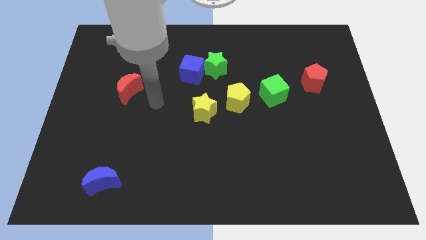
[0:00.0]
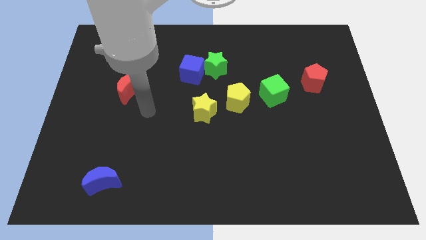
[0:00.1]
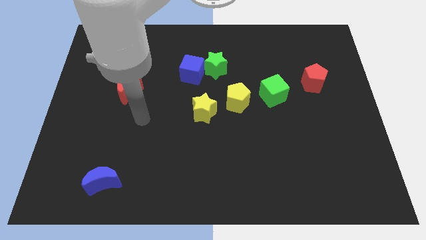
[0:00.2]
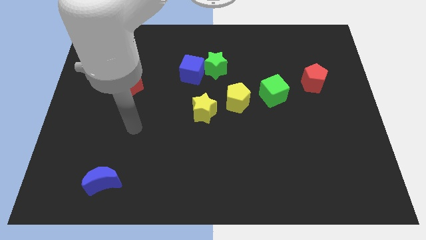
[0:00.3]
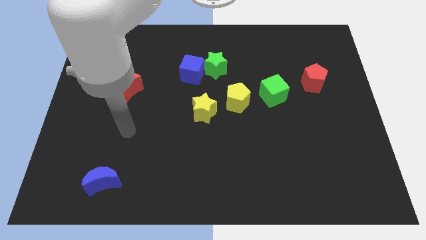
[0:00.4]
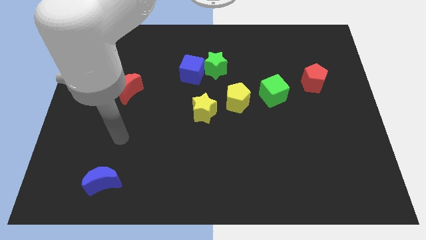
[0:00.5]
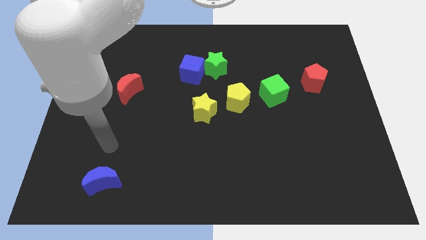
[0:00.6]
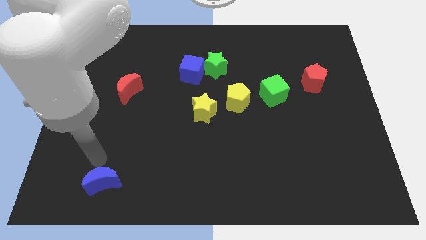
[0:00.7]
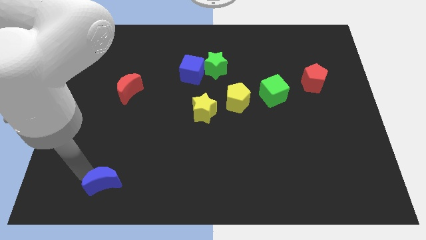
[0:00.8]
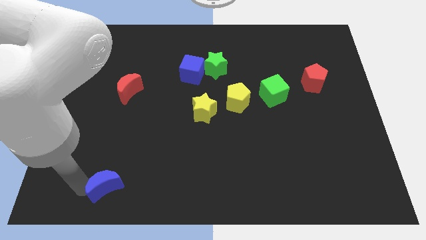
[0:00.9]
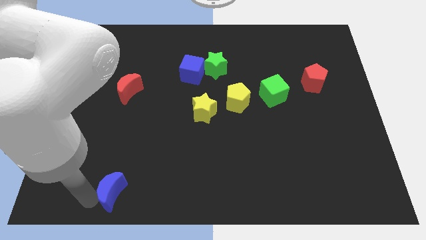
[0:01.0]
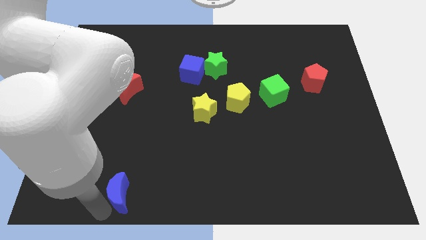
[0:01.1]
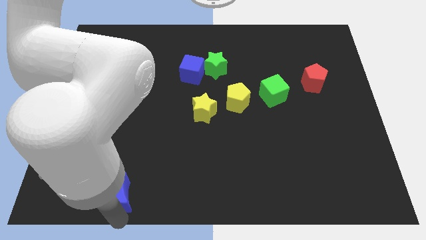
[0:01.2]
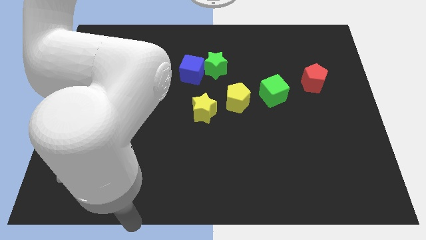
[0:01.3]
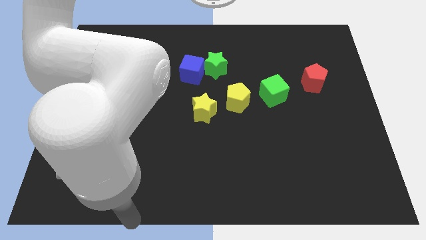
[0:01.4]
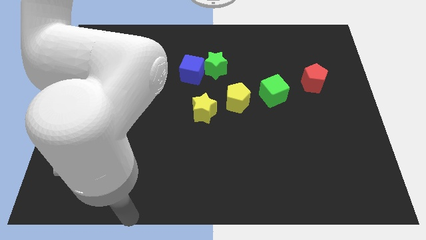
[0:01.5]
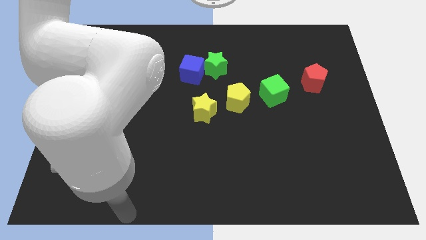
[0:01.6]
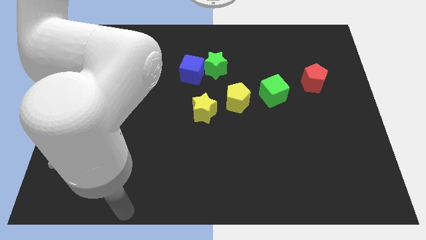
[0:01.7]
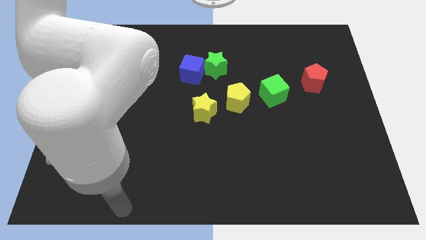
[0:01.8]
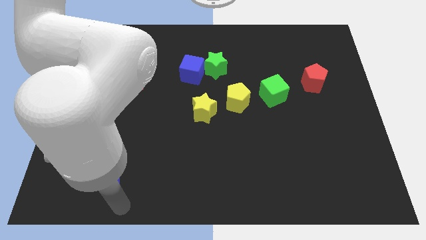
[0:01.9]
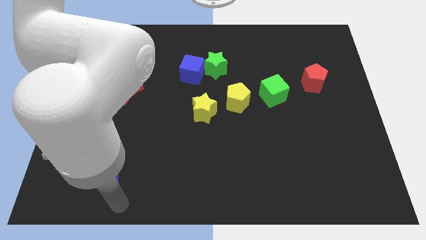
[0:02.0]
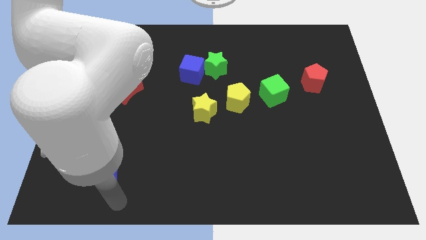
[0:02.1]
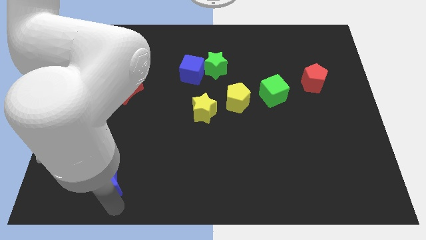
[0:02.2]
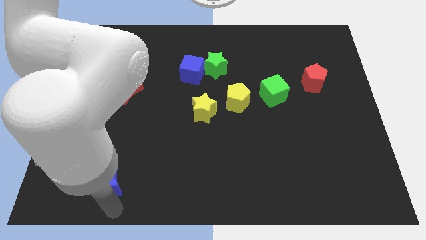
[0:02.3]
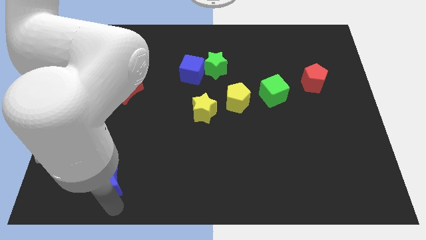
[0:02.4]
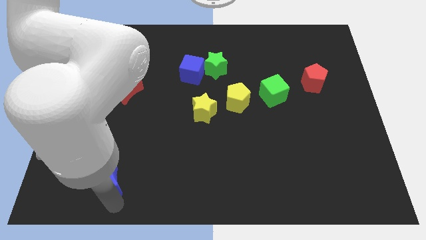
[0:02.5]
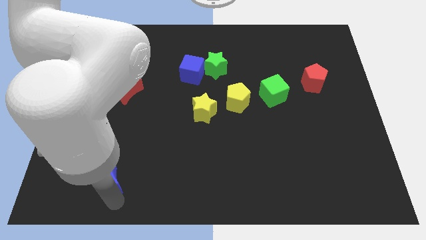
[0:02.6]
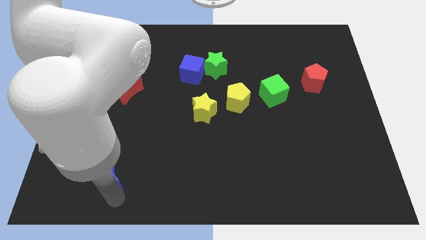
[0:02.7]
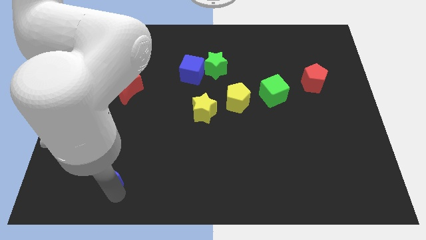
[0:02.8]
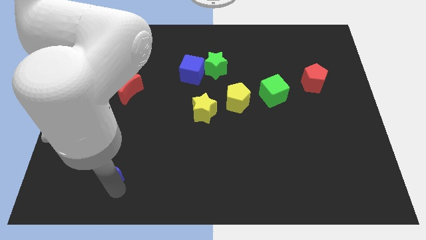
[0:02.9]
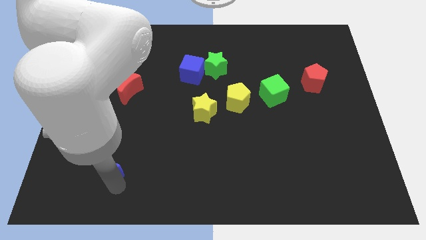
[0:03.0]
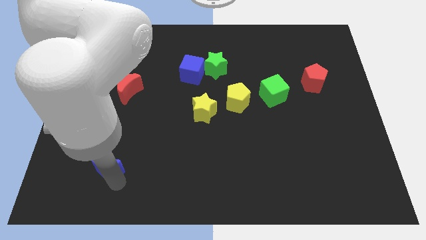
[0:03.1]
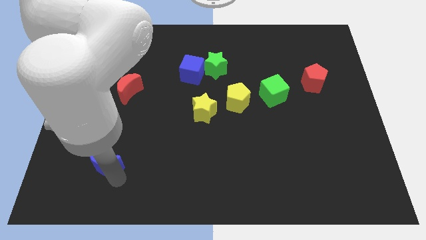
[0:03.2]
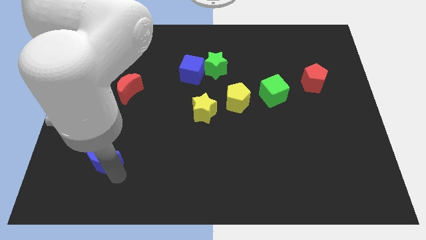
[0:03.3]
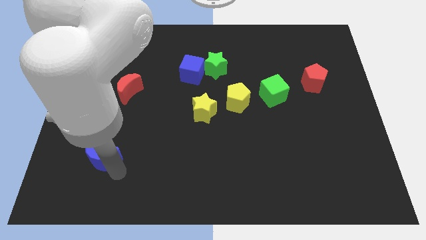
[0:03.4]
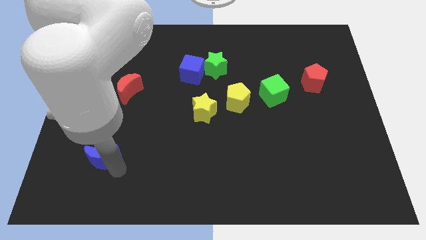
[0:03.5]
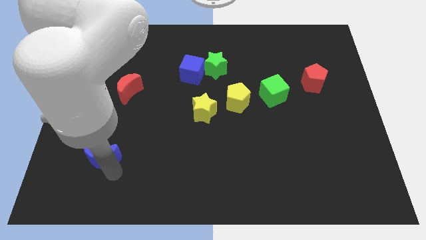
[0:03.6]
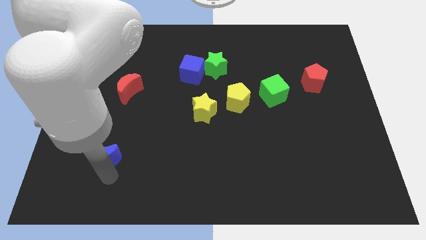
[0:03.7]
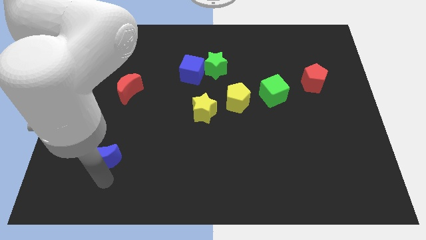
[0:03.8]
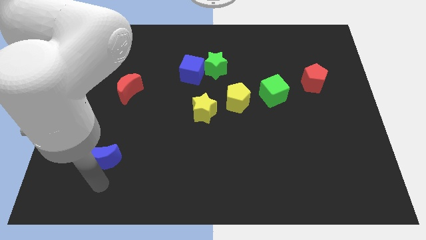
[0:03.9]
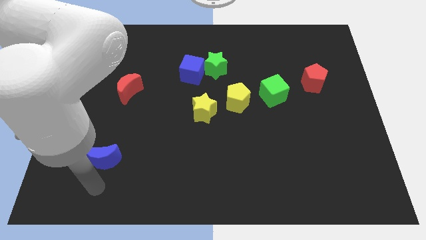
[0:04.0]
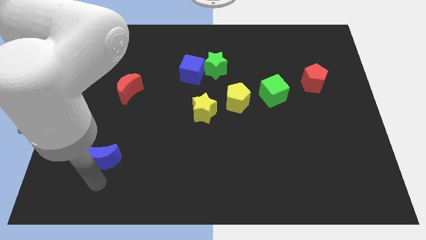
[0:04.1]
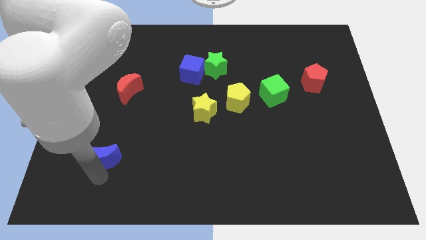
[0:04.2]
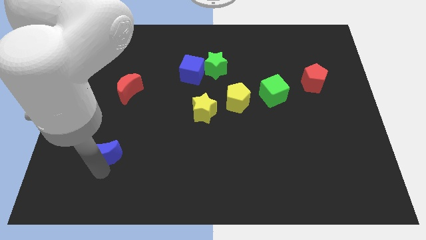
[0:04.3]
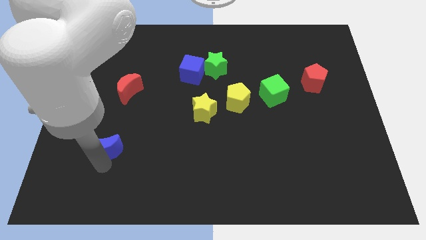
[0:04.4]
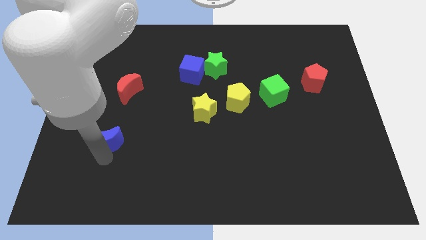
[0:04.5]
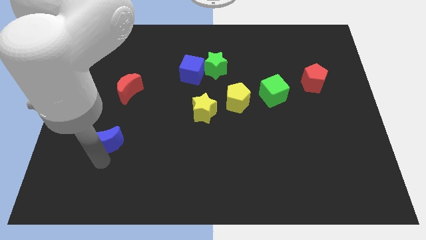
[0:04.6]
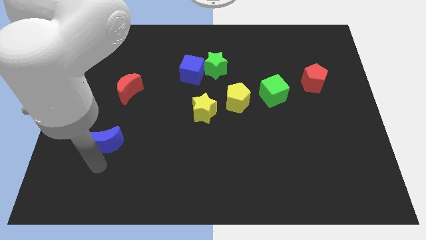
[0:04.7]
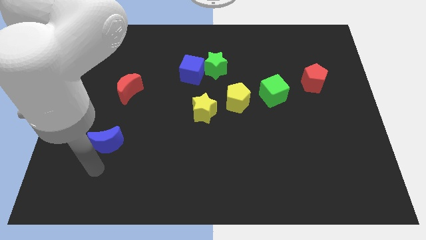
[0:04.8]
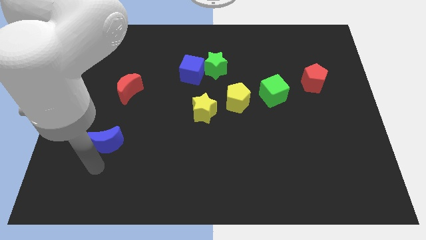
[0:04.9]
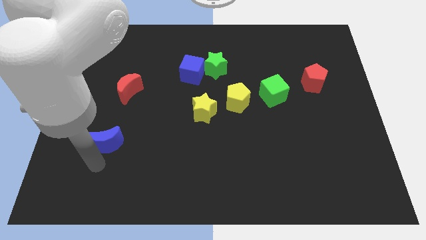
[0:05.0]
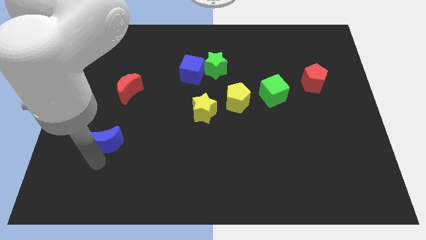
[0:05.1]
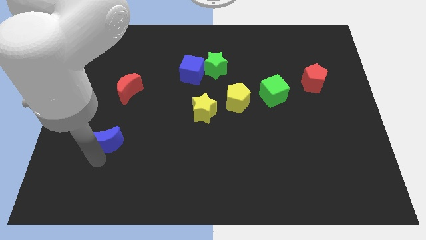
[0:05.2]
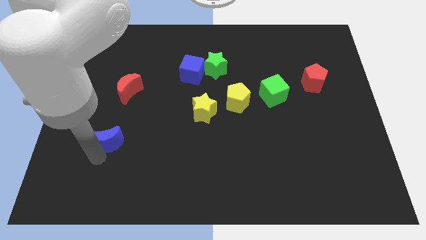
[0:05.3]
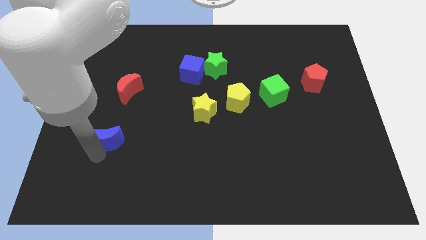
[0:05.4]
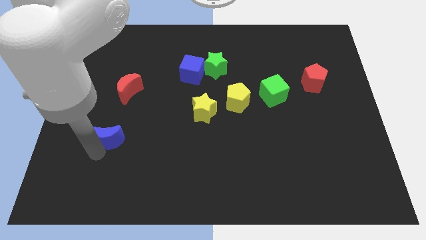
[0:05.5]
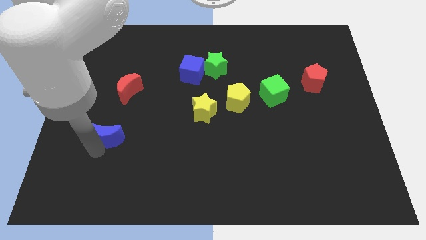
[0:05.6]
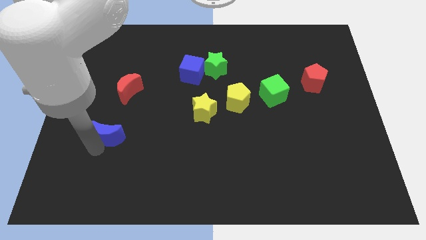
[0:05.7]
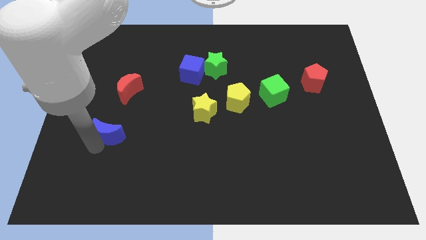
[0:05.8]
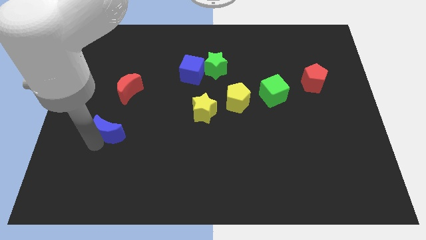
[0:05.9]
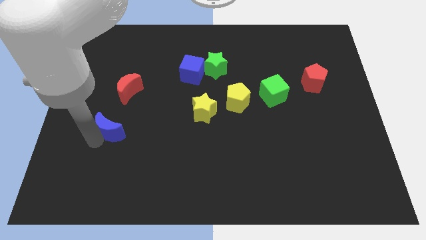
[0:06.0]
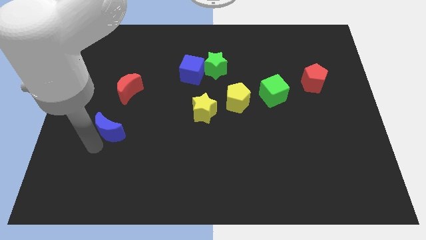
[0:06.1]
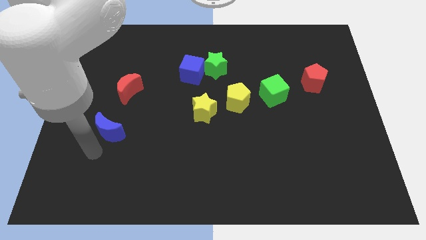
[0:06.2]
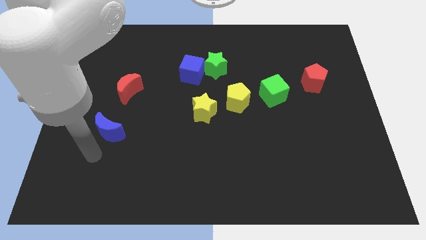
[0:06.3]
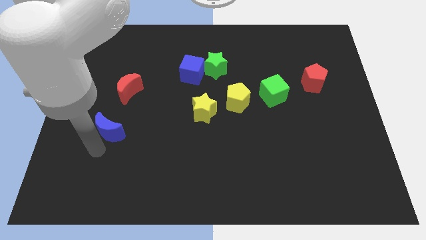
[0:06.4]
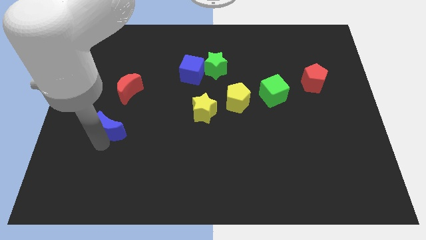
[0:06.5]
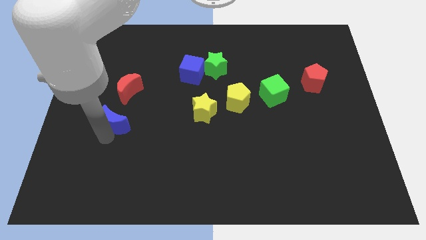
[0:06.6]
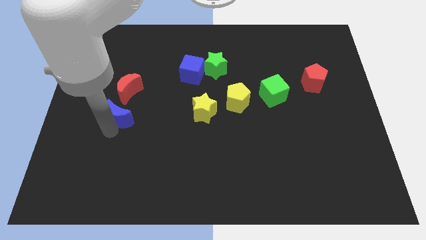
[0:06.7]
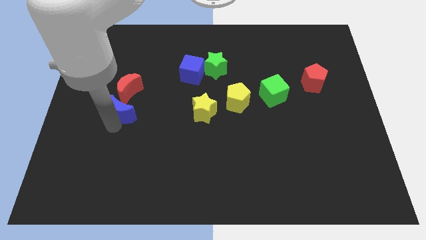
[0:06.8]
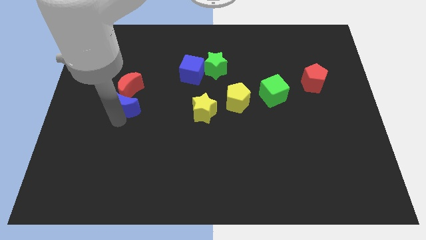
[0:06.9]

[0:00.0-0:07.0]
slide the blue moon close to the red moon

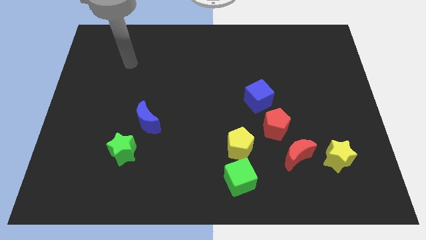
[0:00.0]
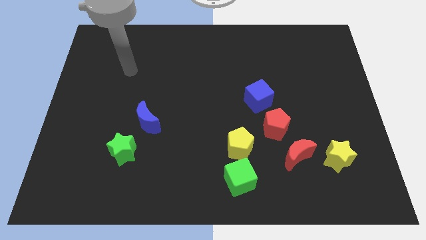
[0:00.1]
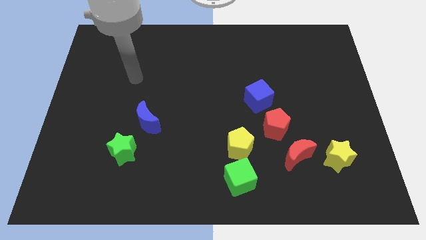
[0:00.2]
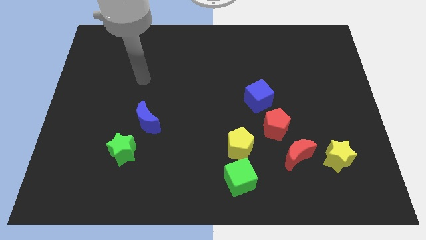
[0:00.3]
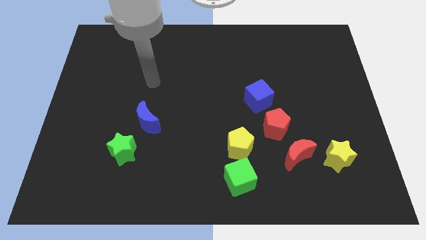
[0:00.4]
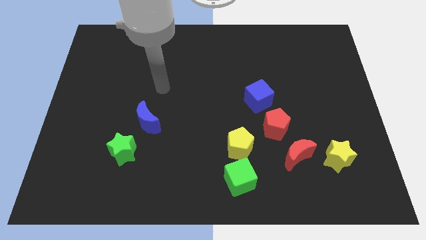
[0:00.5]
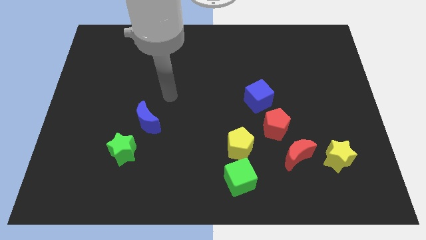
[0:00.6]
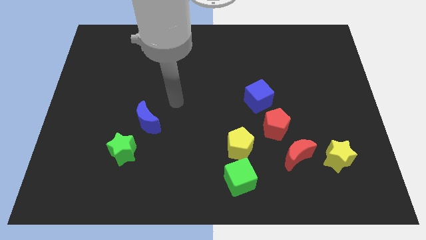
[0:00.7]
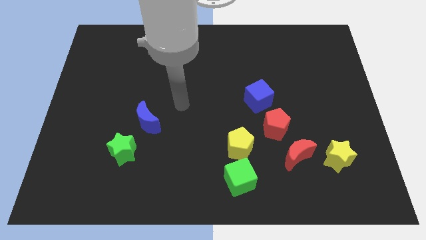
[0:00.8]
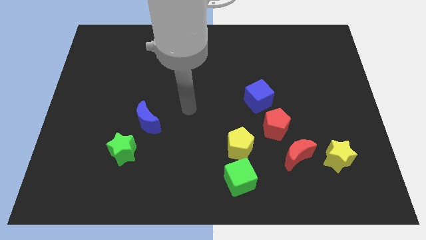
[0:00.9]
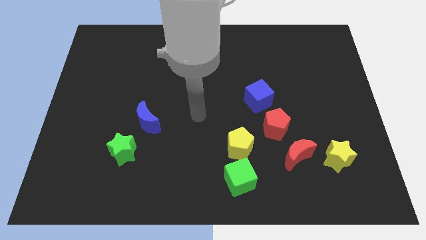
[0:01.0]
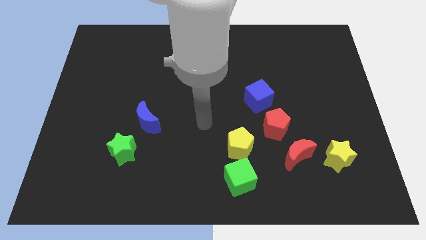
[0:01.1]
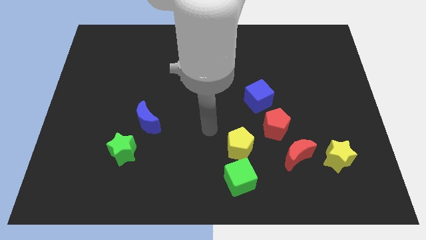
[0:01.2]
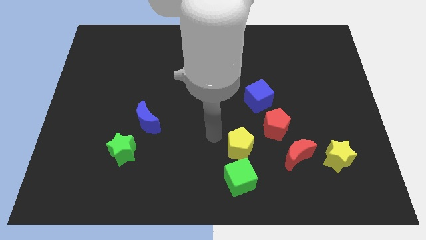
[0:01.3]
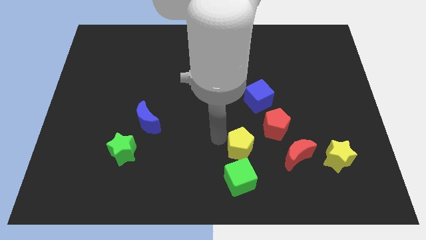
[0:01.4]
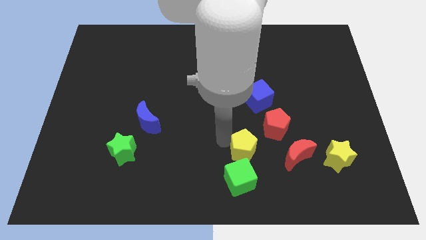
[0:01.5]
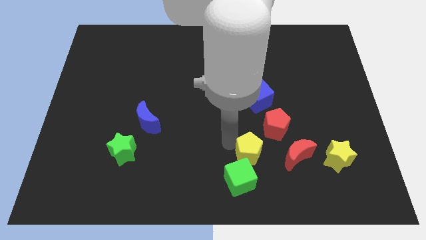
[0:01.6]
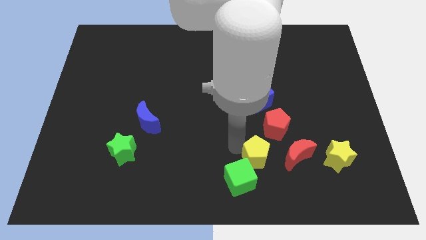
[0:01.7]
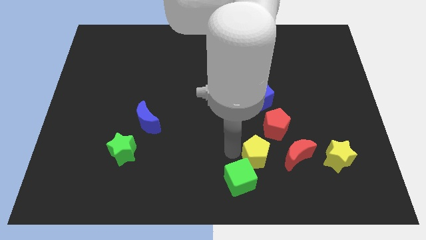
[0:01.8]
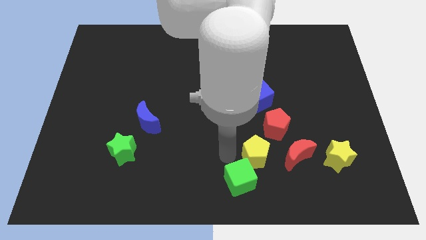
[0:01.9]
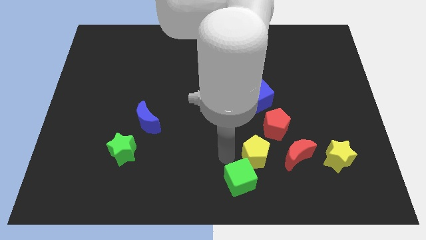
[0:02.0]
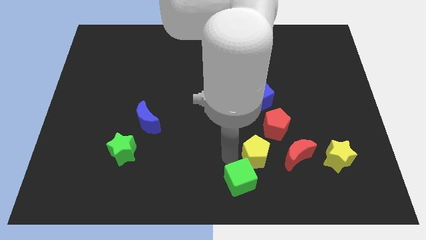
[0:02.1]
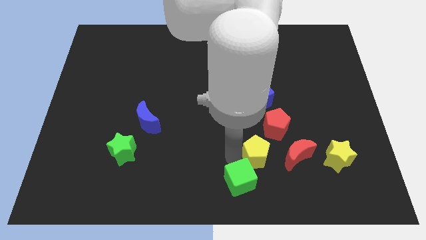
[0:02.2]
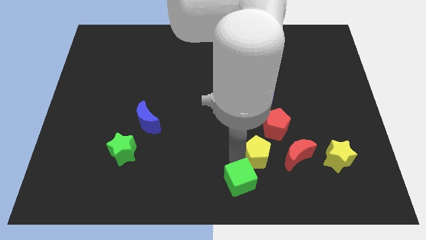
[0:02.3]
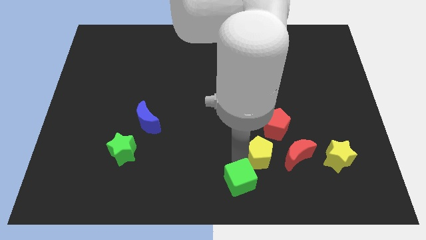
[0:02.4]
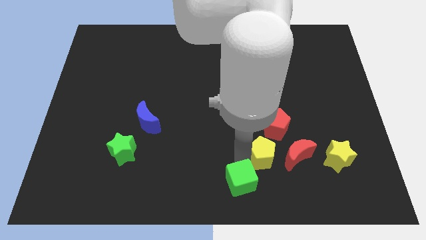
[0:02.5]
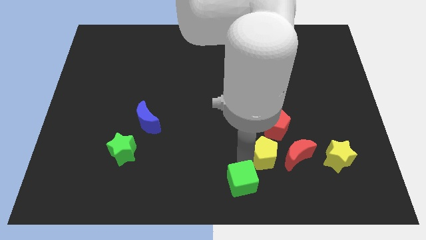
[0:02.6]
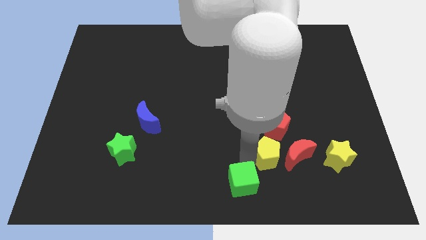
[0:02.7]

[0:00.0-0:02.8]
put the yellow pentagon towards the red moon
